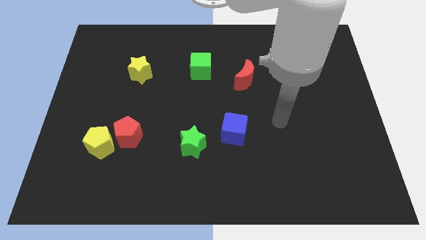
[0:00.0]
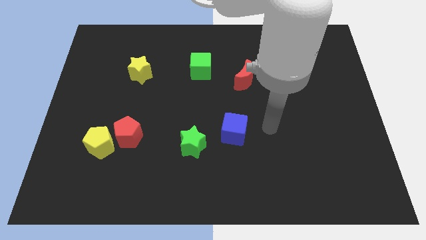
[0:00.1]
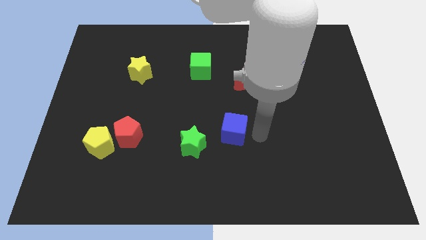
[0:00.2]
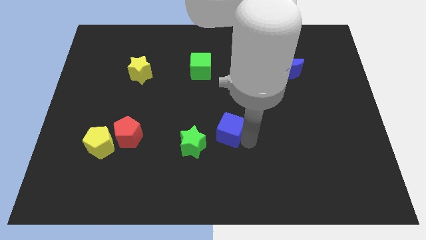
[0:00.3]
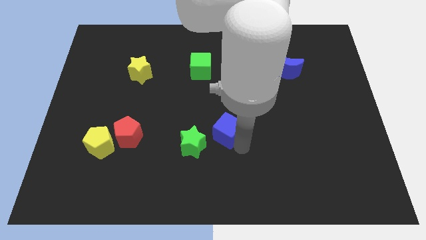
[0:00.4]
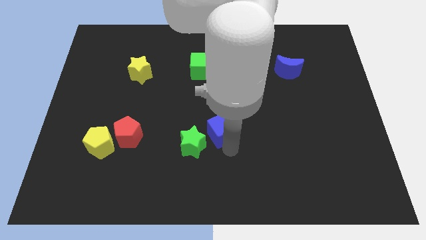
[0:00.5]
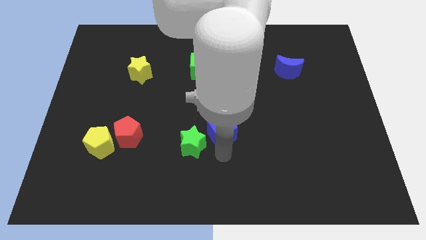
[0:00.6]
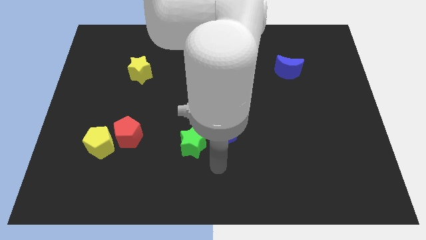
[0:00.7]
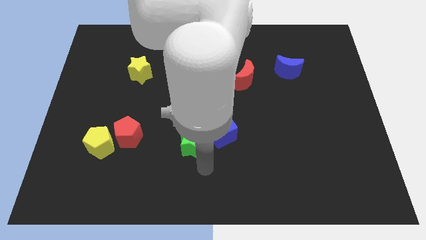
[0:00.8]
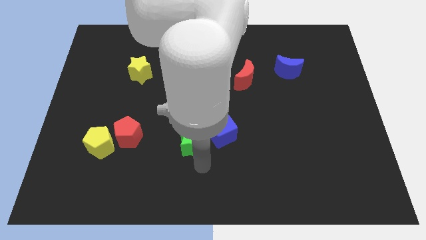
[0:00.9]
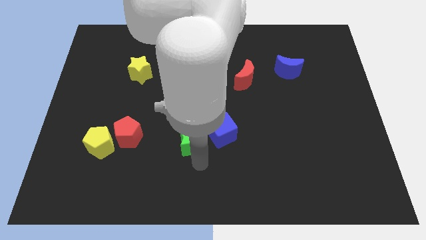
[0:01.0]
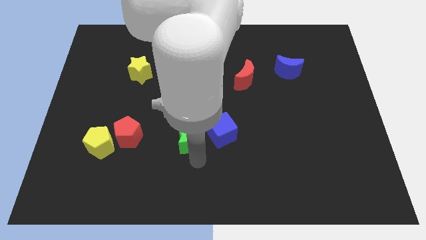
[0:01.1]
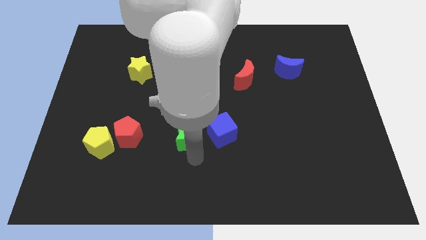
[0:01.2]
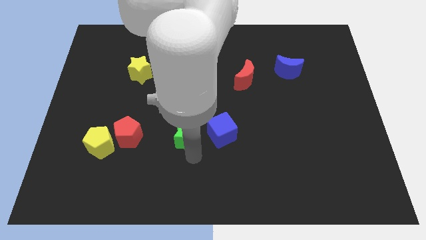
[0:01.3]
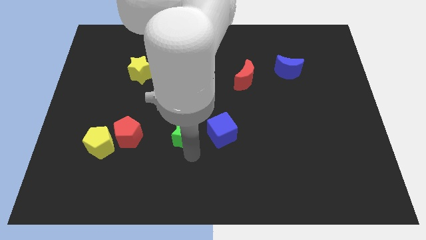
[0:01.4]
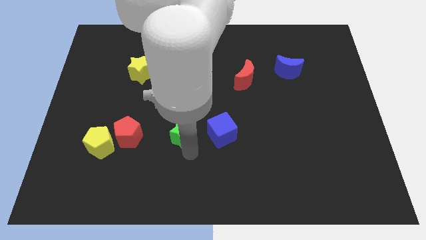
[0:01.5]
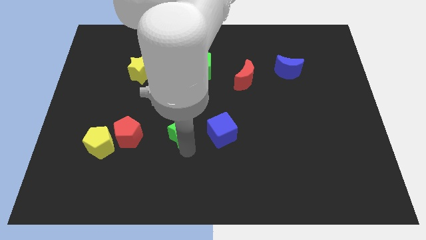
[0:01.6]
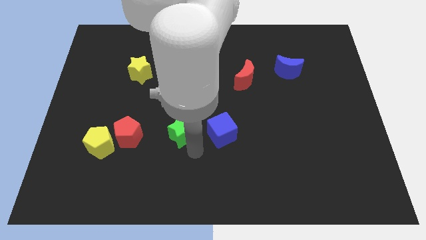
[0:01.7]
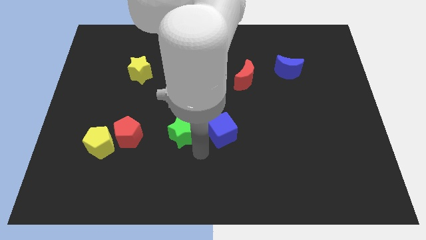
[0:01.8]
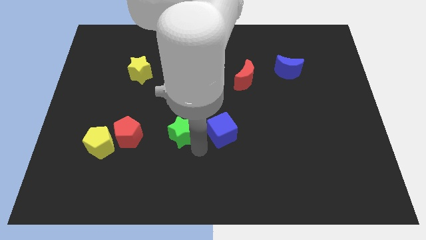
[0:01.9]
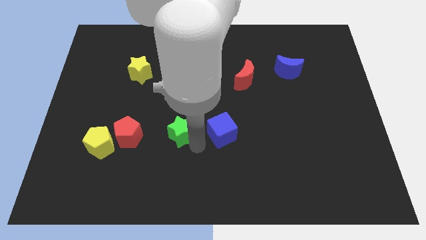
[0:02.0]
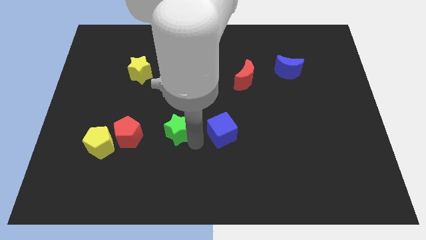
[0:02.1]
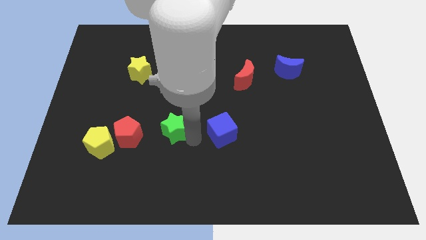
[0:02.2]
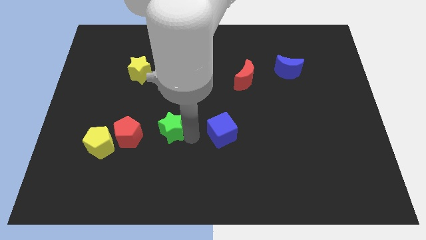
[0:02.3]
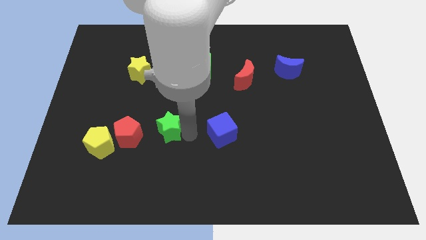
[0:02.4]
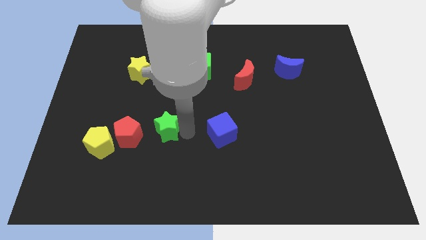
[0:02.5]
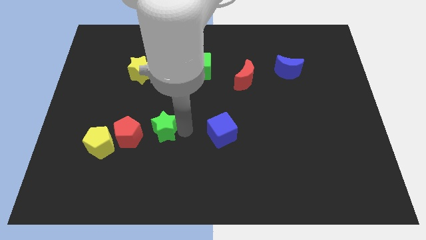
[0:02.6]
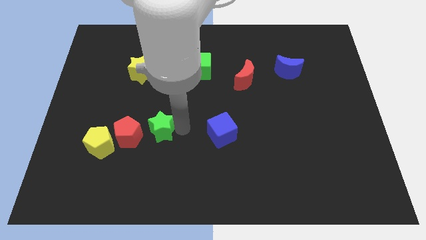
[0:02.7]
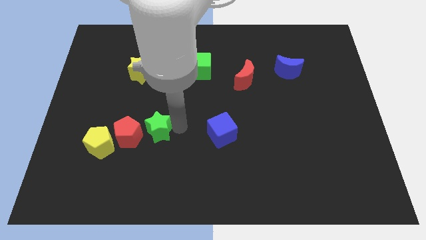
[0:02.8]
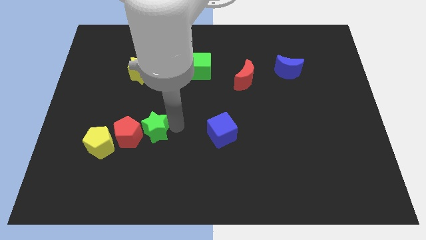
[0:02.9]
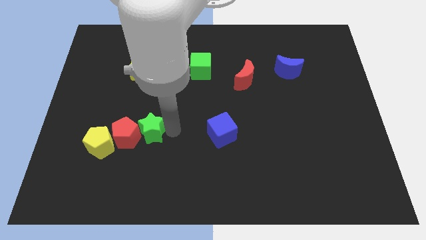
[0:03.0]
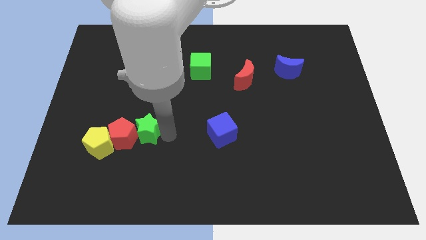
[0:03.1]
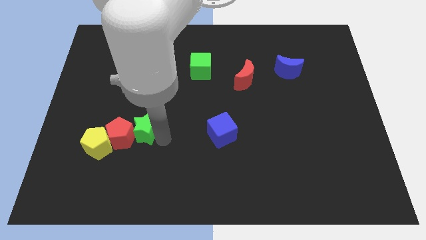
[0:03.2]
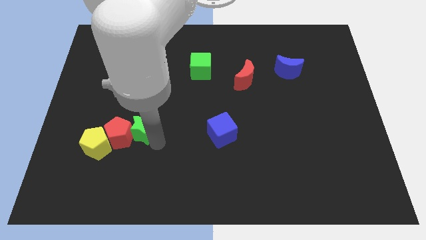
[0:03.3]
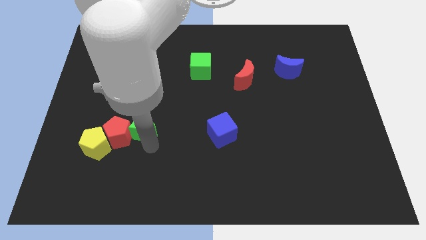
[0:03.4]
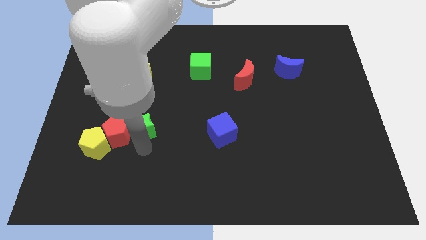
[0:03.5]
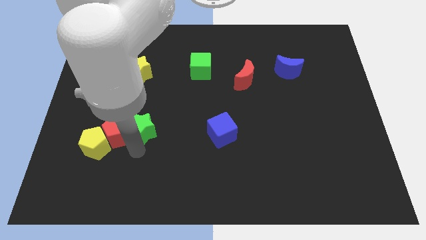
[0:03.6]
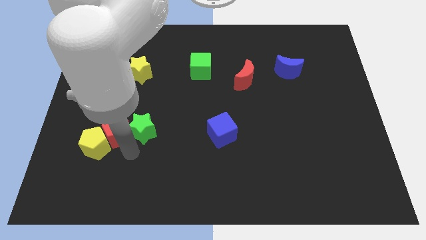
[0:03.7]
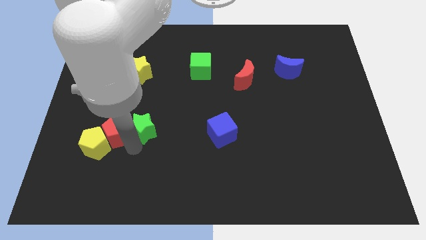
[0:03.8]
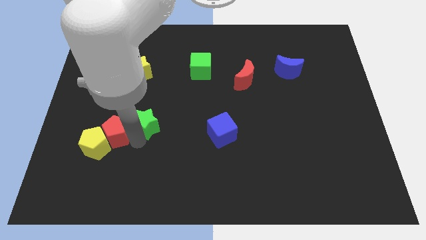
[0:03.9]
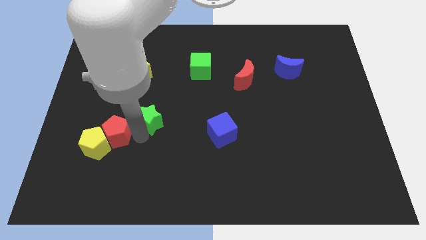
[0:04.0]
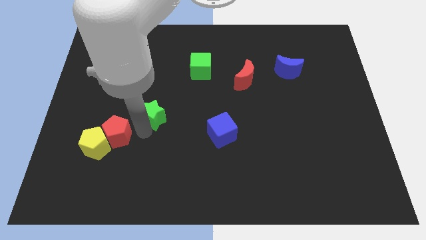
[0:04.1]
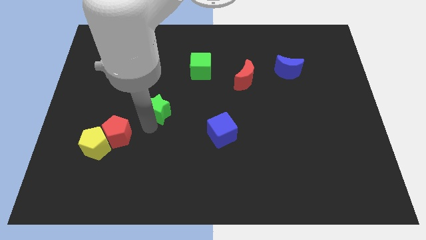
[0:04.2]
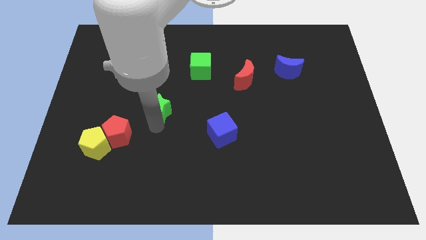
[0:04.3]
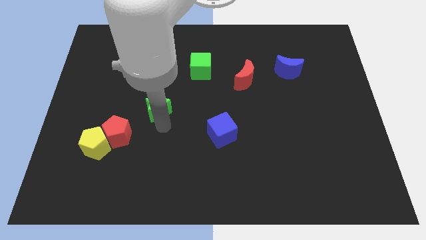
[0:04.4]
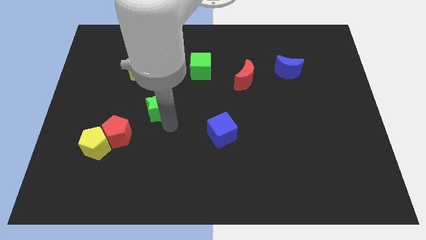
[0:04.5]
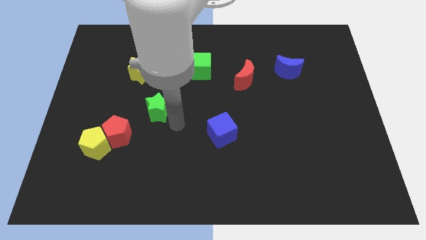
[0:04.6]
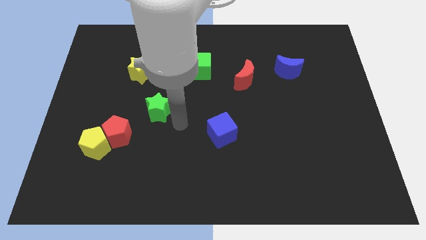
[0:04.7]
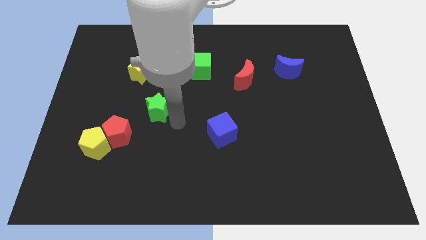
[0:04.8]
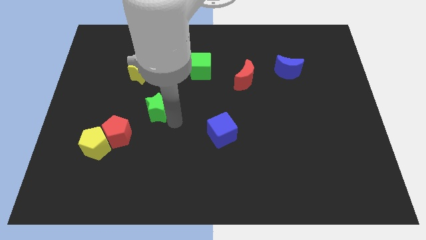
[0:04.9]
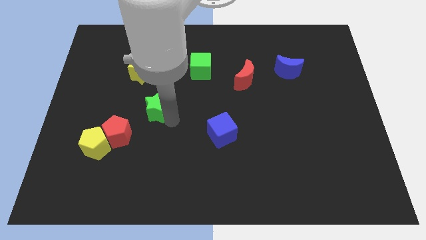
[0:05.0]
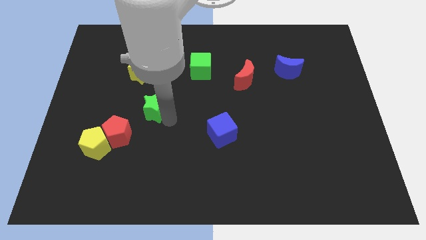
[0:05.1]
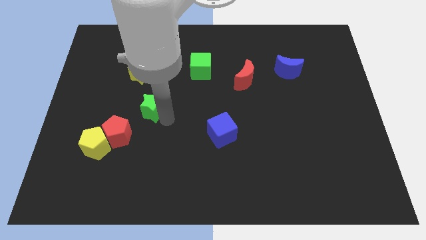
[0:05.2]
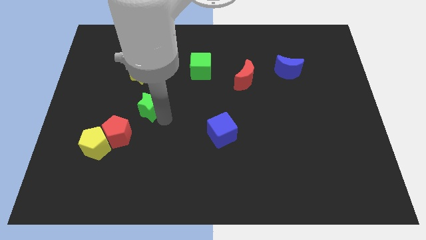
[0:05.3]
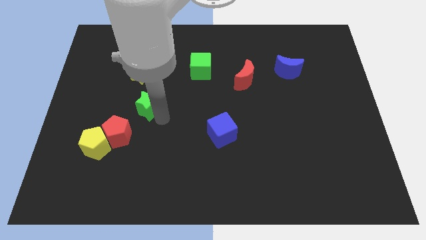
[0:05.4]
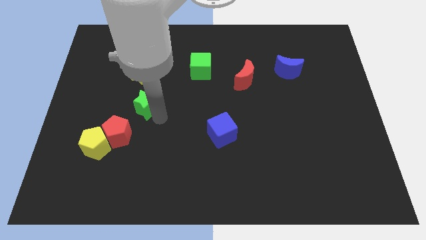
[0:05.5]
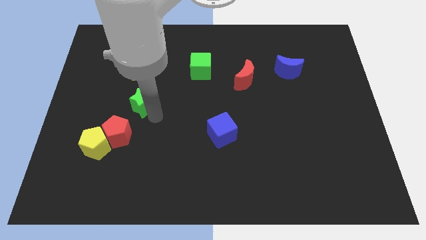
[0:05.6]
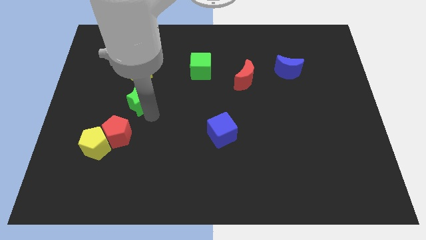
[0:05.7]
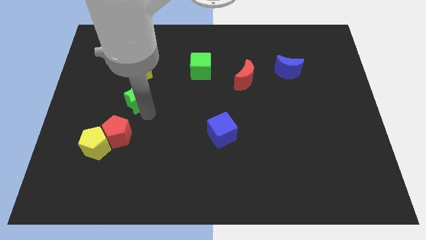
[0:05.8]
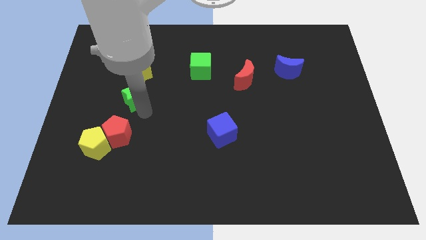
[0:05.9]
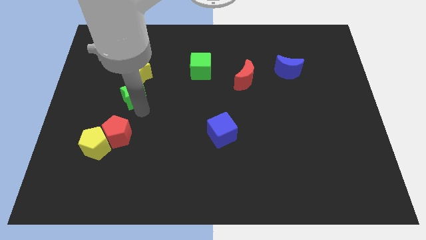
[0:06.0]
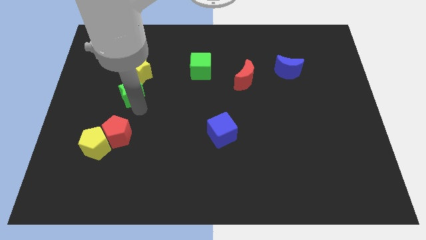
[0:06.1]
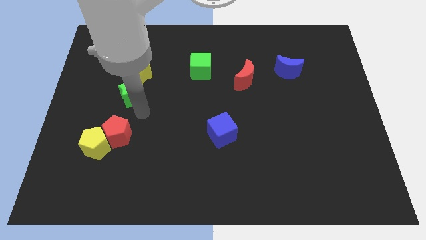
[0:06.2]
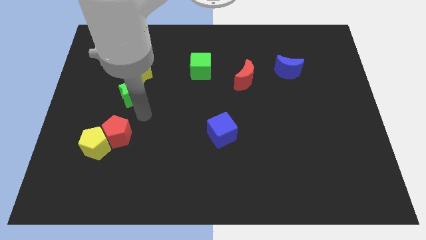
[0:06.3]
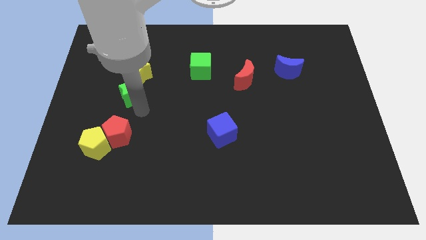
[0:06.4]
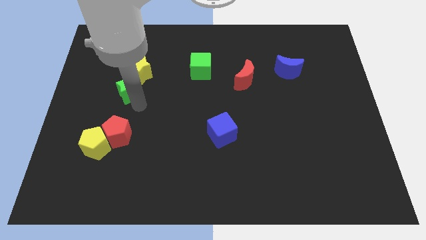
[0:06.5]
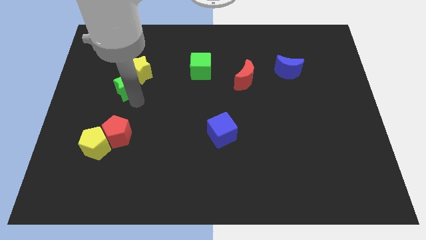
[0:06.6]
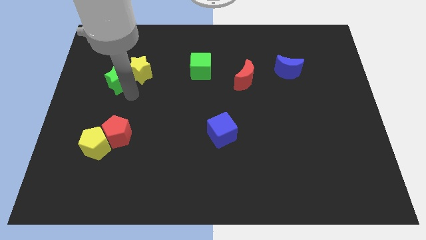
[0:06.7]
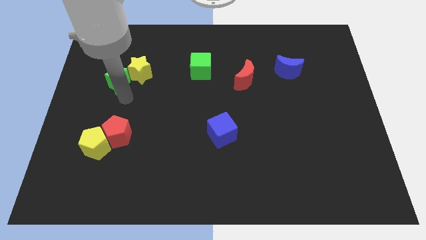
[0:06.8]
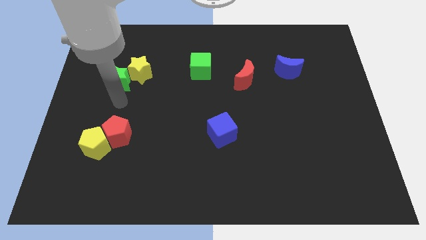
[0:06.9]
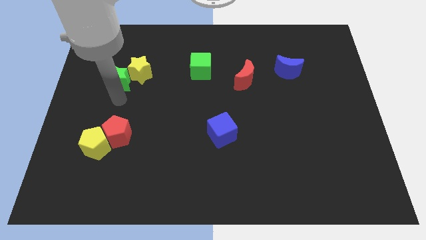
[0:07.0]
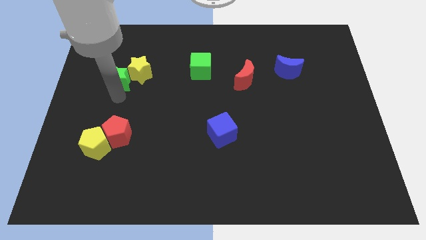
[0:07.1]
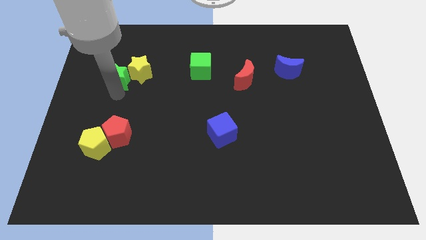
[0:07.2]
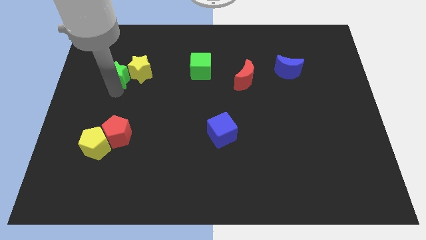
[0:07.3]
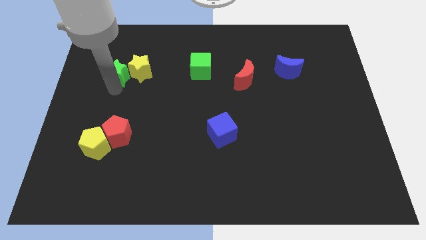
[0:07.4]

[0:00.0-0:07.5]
slide the green star diagonally up and to the left of the yellow star
